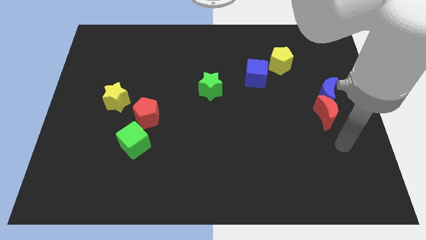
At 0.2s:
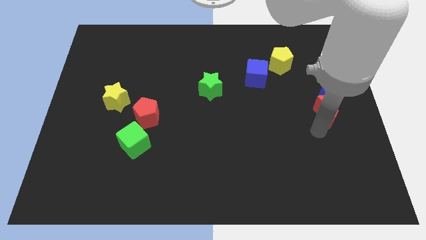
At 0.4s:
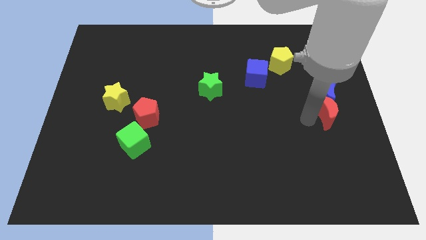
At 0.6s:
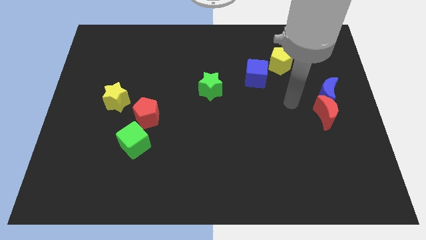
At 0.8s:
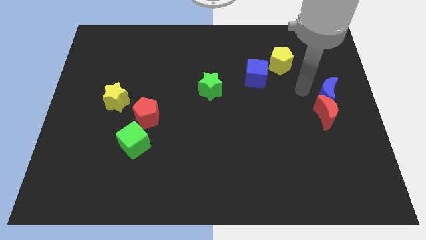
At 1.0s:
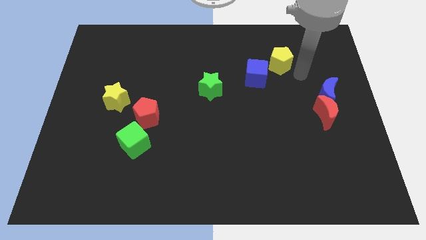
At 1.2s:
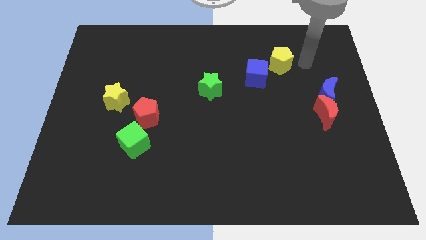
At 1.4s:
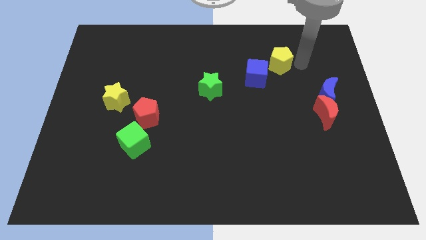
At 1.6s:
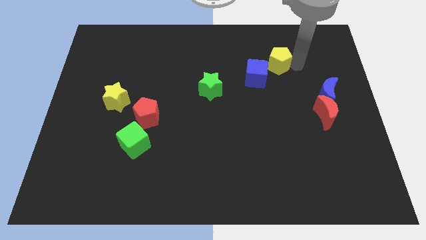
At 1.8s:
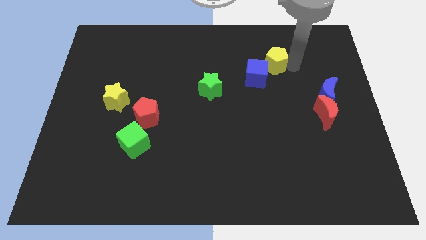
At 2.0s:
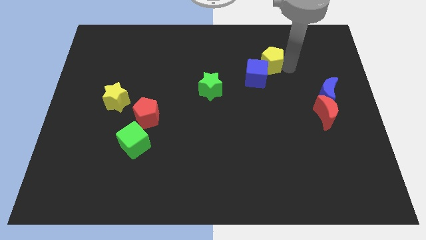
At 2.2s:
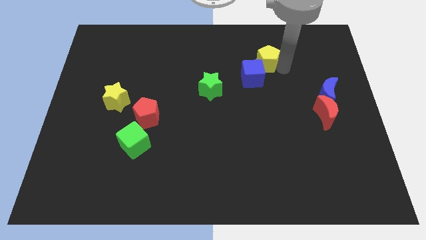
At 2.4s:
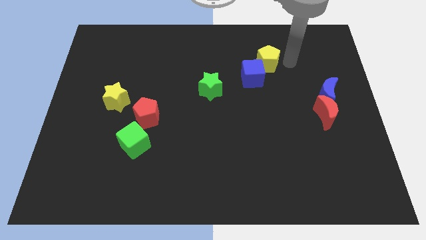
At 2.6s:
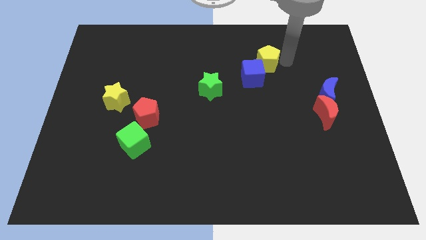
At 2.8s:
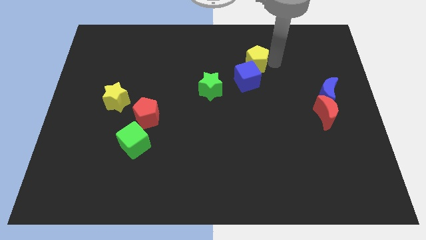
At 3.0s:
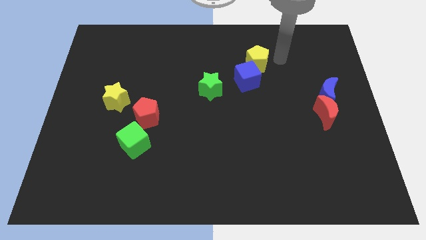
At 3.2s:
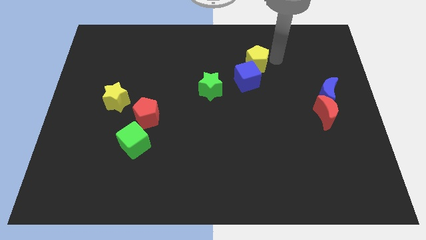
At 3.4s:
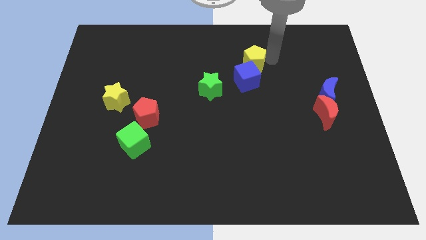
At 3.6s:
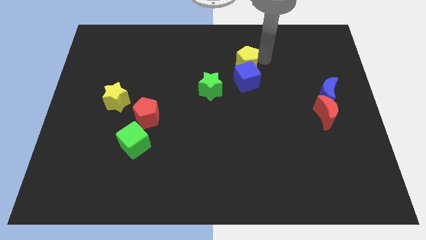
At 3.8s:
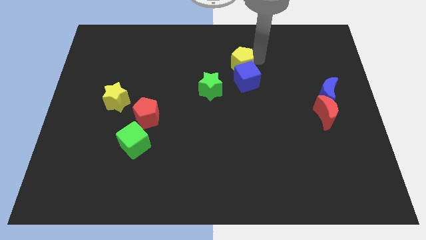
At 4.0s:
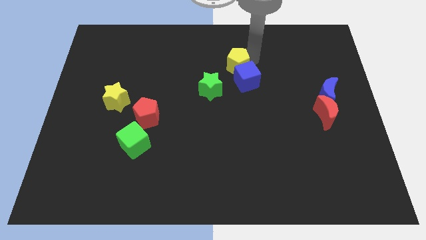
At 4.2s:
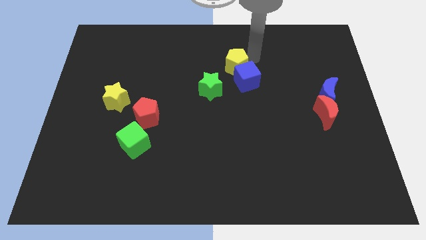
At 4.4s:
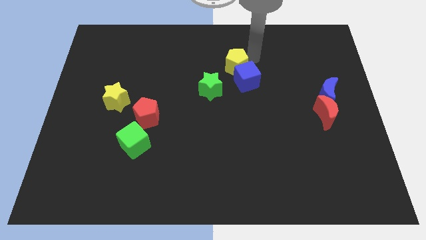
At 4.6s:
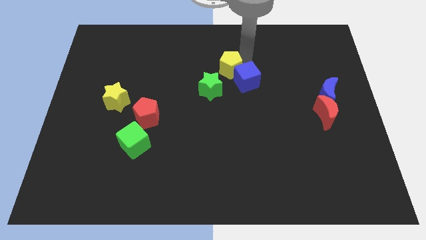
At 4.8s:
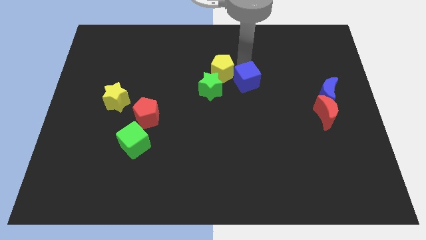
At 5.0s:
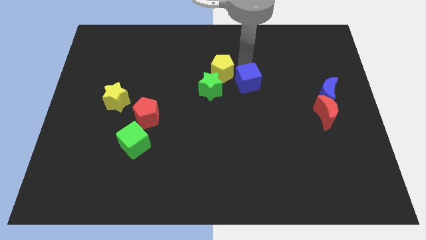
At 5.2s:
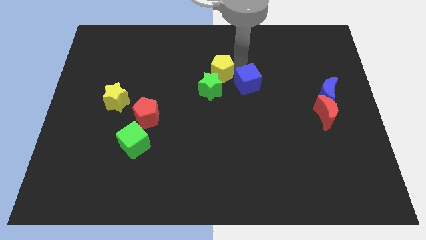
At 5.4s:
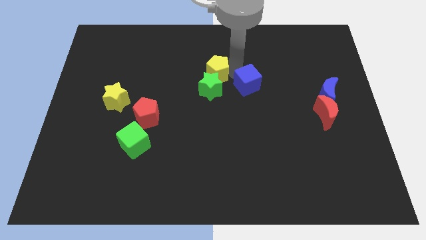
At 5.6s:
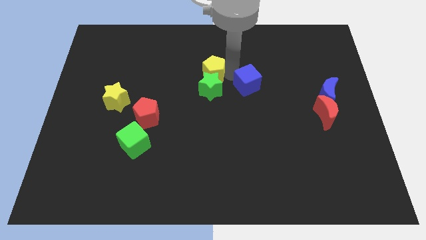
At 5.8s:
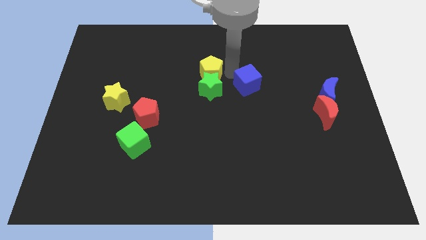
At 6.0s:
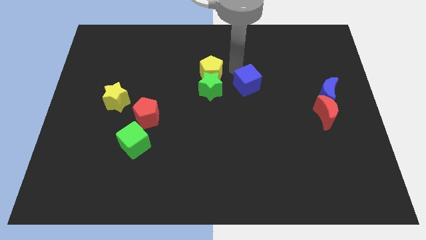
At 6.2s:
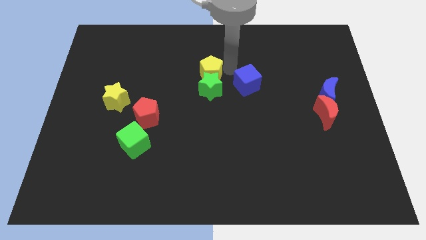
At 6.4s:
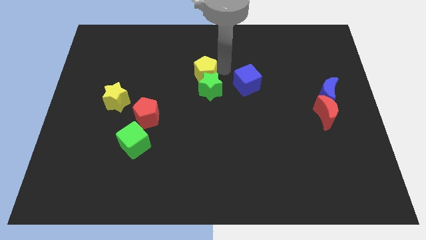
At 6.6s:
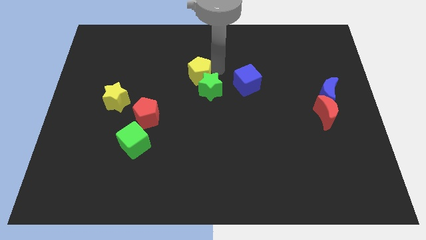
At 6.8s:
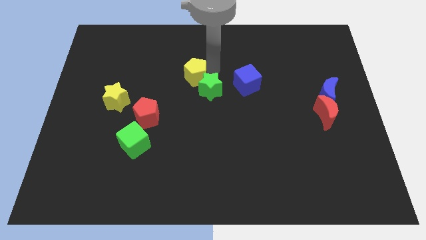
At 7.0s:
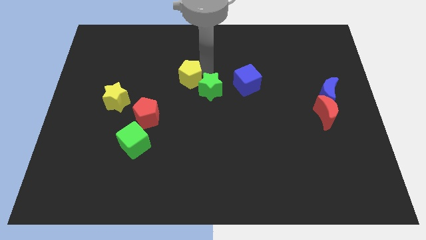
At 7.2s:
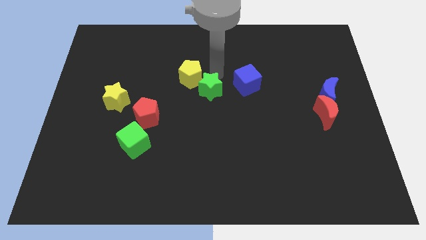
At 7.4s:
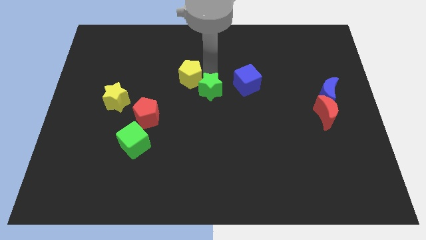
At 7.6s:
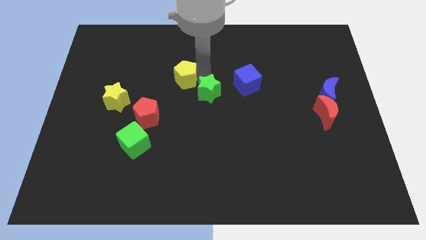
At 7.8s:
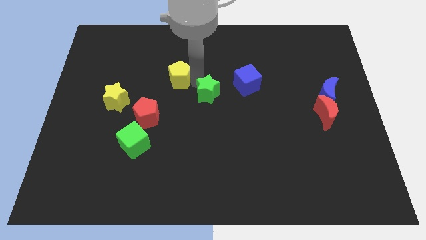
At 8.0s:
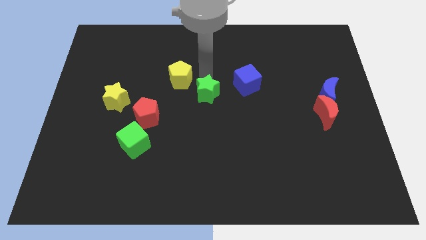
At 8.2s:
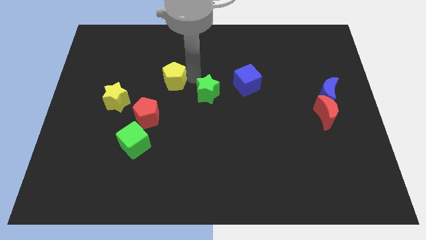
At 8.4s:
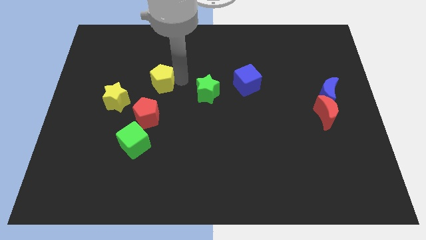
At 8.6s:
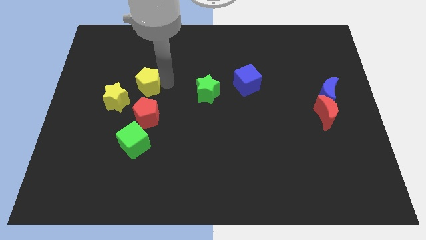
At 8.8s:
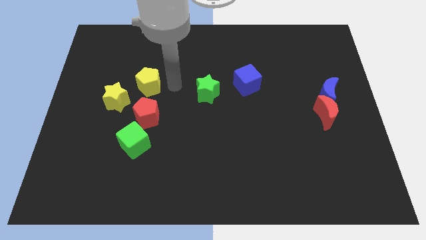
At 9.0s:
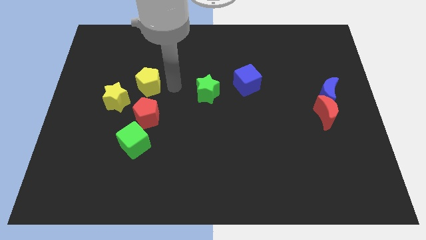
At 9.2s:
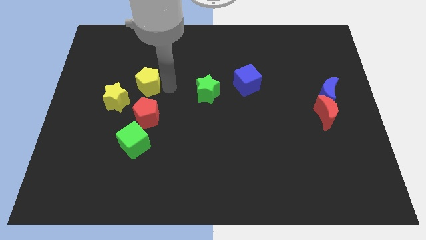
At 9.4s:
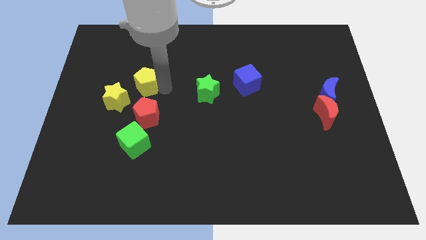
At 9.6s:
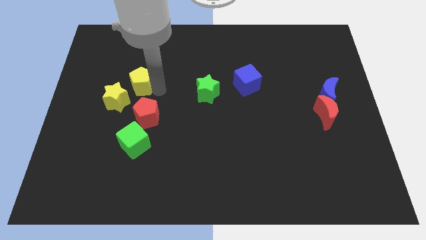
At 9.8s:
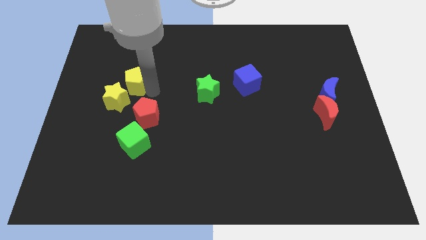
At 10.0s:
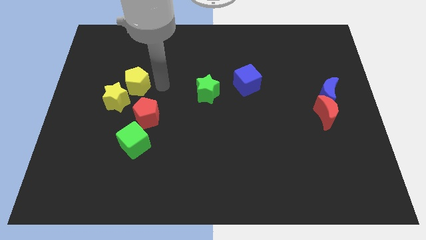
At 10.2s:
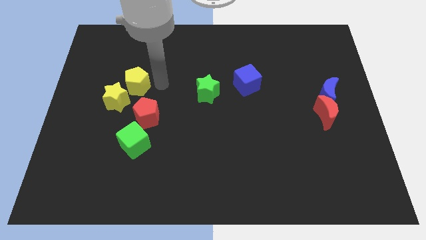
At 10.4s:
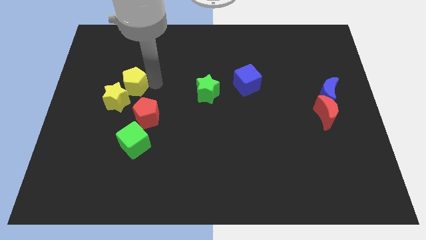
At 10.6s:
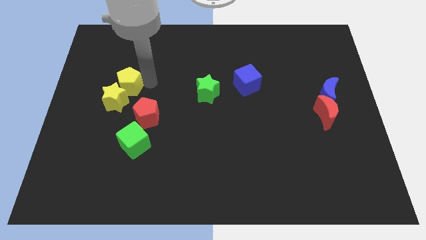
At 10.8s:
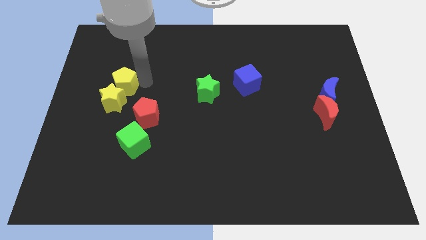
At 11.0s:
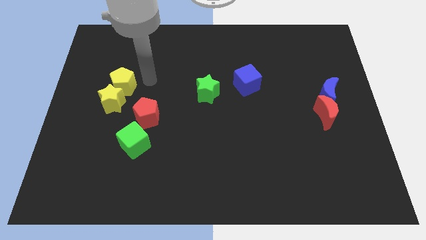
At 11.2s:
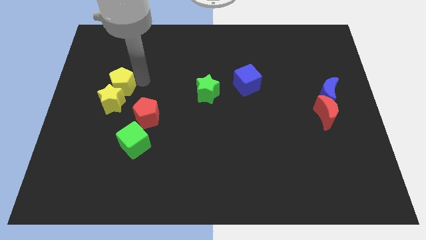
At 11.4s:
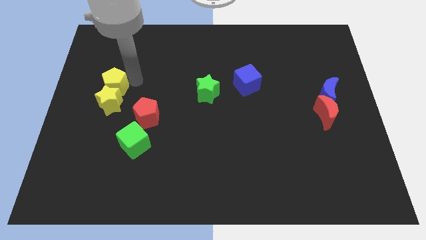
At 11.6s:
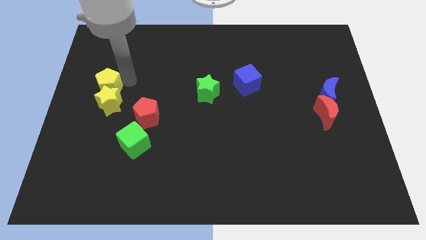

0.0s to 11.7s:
slide the yellow pentagon to the left side of the board

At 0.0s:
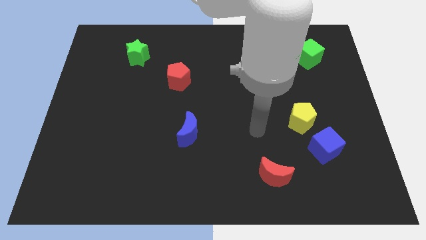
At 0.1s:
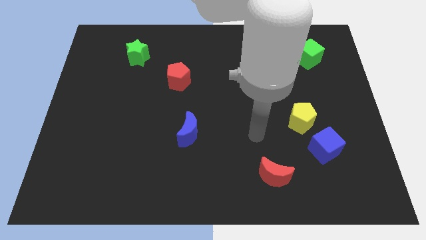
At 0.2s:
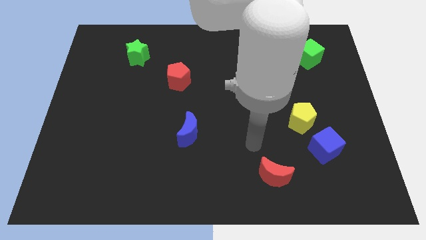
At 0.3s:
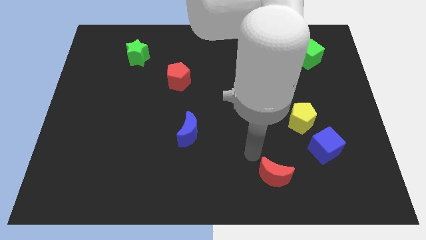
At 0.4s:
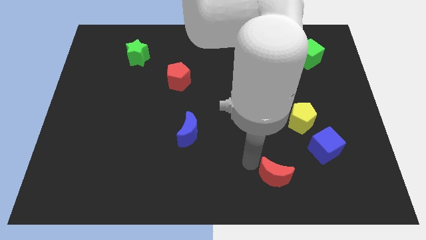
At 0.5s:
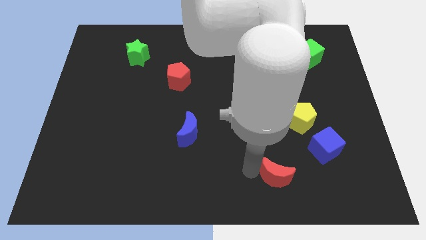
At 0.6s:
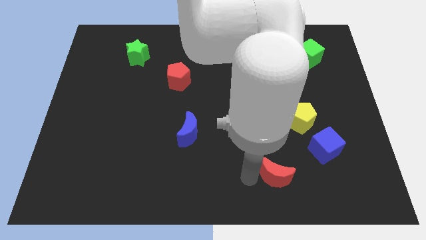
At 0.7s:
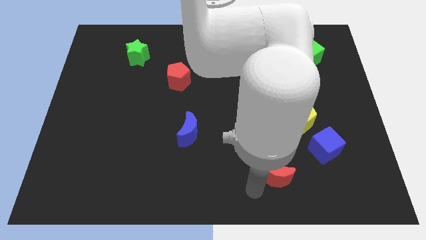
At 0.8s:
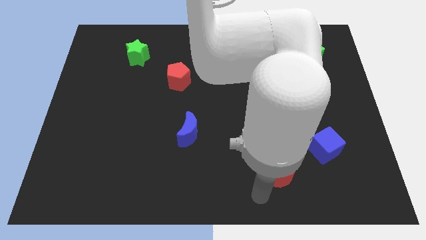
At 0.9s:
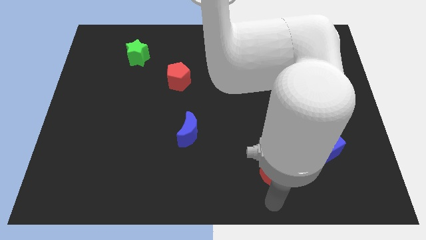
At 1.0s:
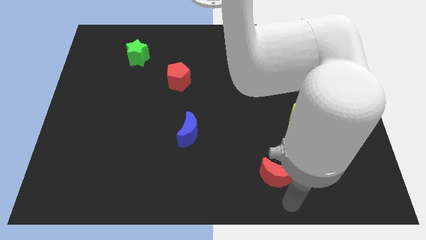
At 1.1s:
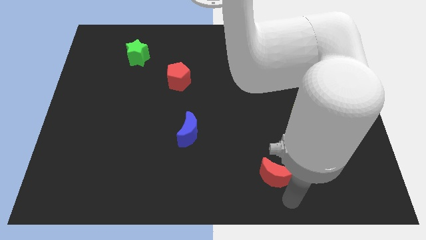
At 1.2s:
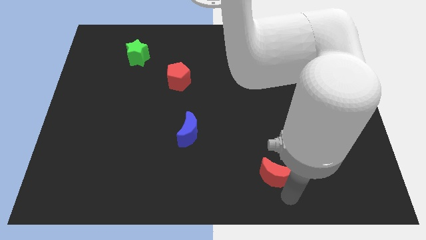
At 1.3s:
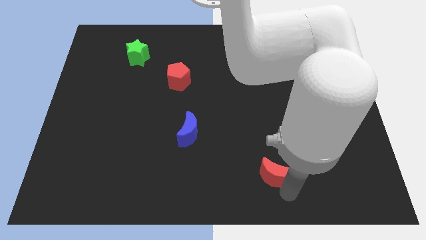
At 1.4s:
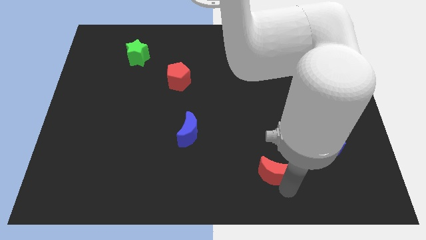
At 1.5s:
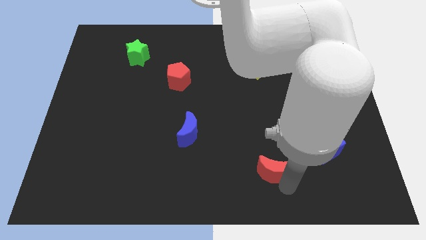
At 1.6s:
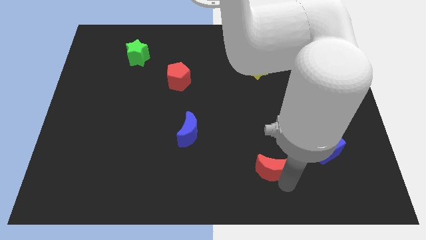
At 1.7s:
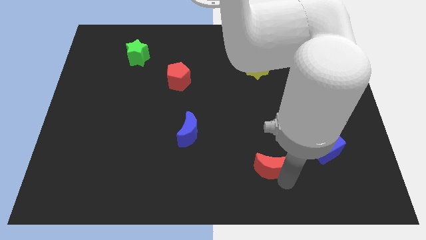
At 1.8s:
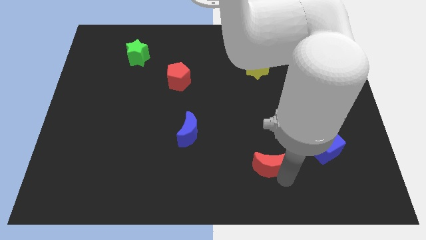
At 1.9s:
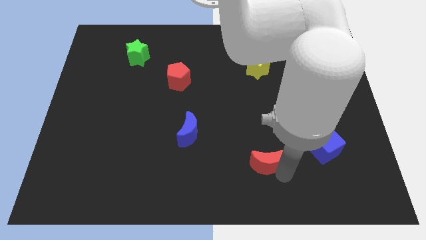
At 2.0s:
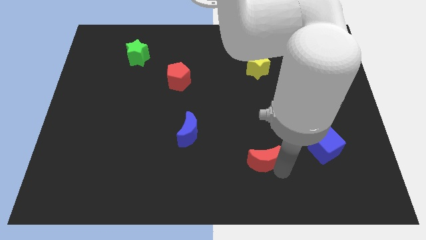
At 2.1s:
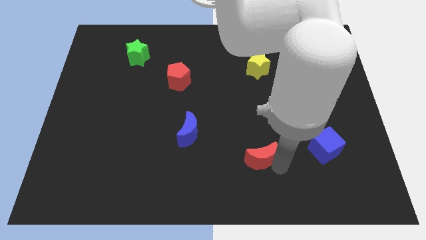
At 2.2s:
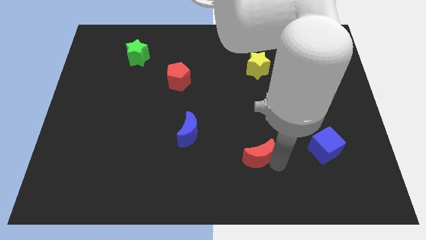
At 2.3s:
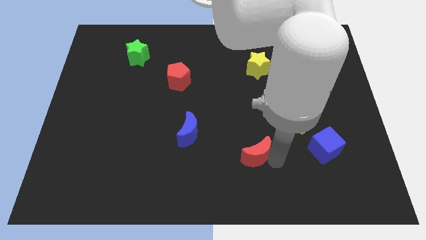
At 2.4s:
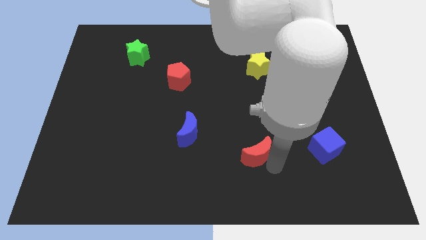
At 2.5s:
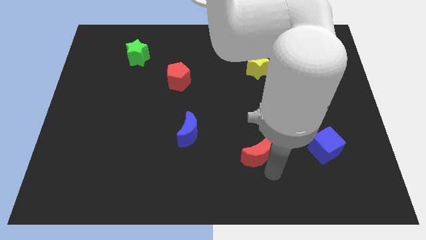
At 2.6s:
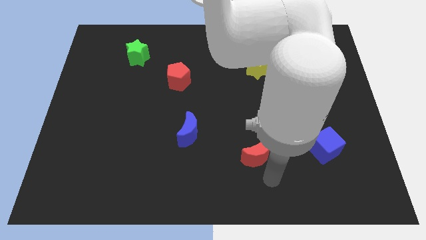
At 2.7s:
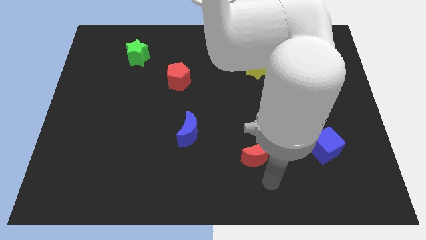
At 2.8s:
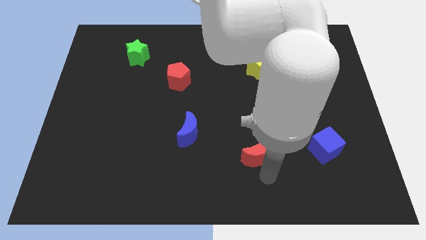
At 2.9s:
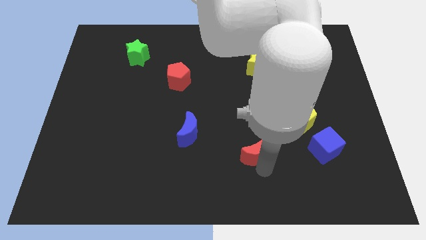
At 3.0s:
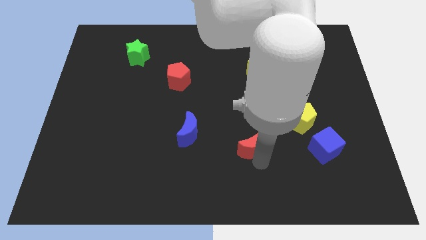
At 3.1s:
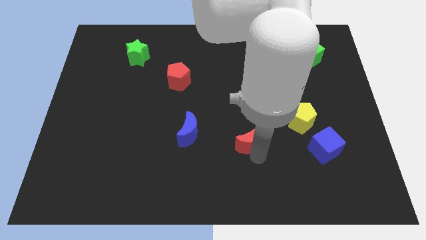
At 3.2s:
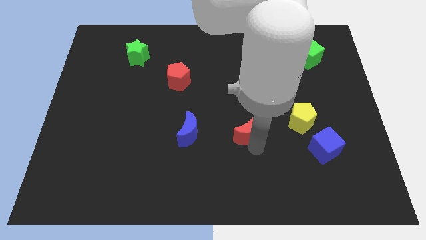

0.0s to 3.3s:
slide the red moon to the middle of the board
